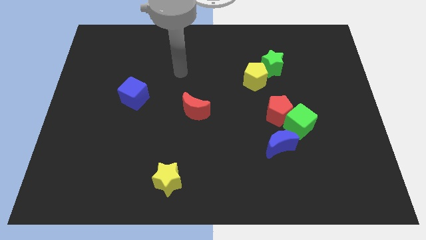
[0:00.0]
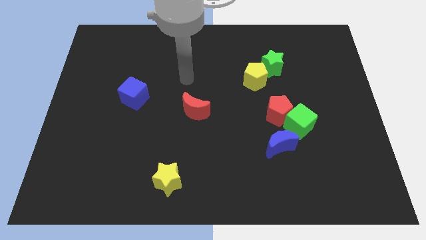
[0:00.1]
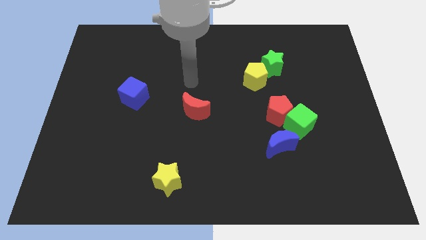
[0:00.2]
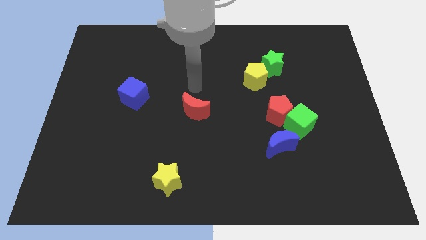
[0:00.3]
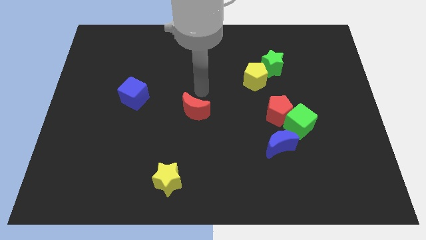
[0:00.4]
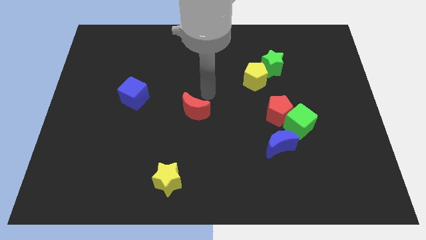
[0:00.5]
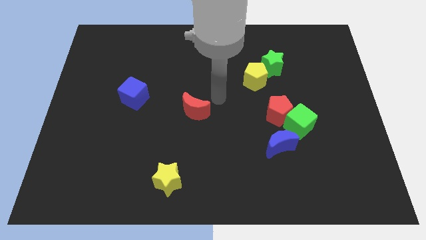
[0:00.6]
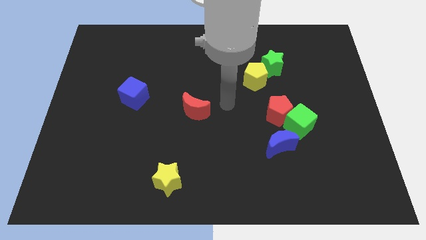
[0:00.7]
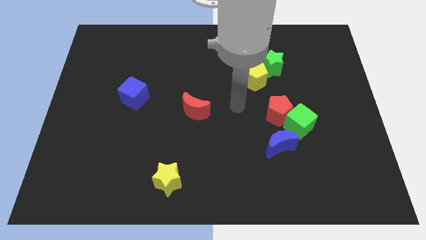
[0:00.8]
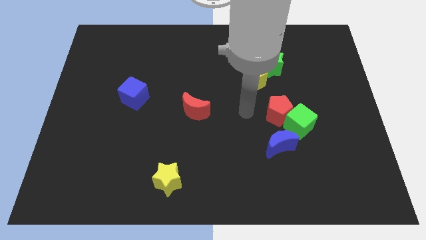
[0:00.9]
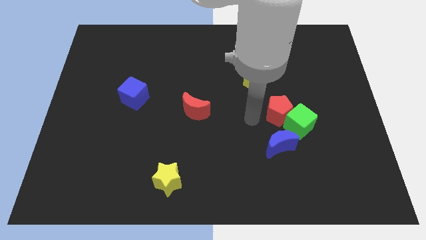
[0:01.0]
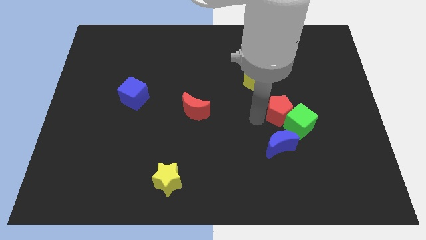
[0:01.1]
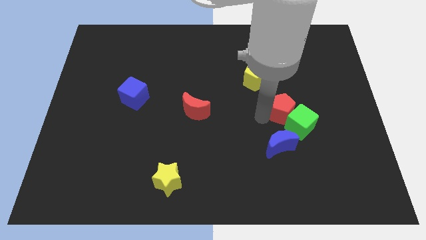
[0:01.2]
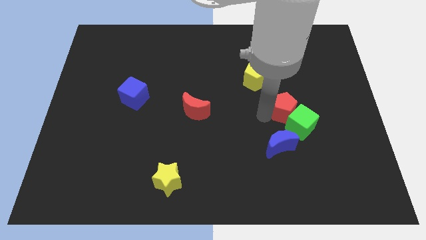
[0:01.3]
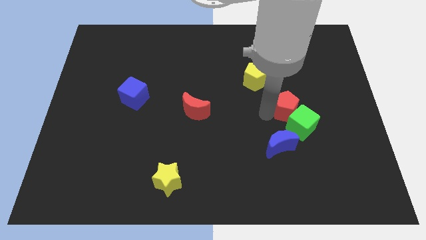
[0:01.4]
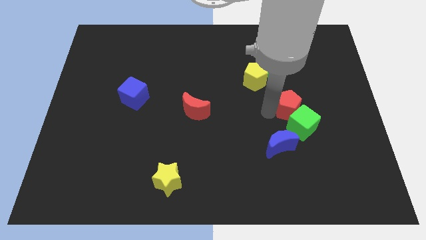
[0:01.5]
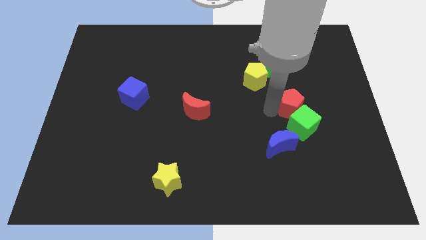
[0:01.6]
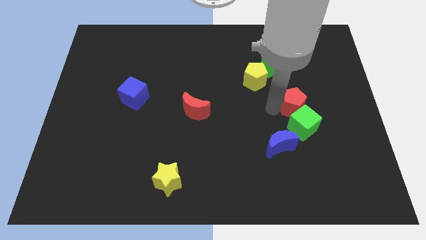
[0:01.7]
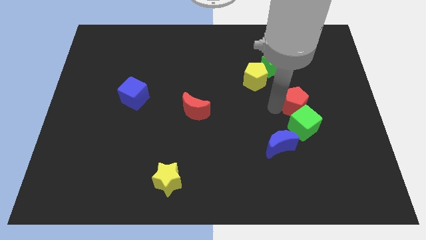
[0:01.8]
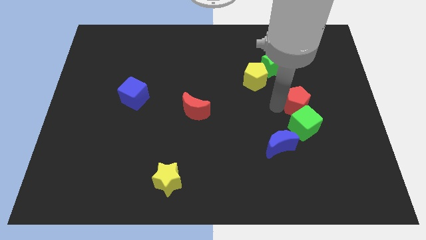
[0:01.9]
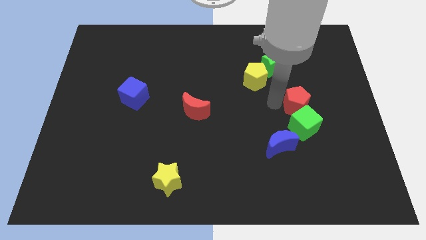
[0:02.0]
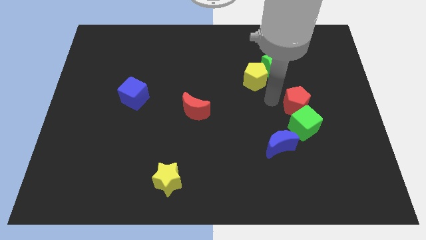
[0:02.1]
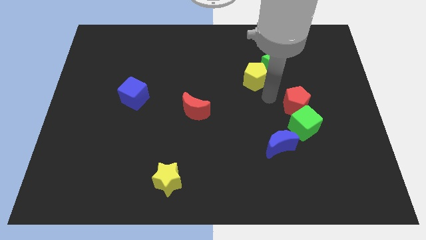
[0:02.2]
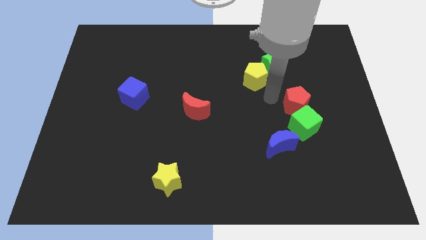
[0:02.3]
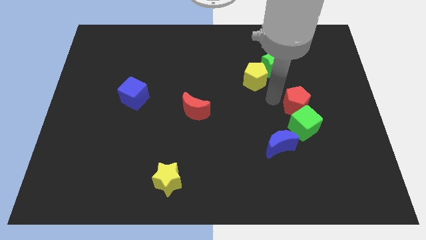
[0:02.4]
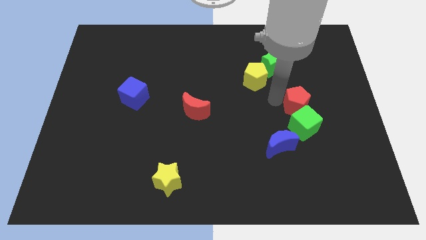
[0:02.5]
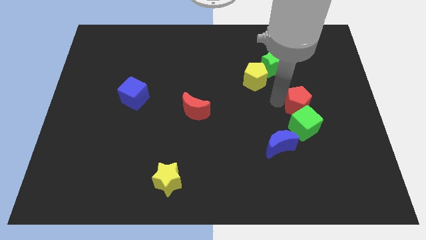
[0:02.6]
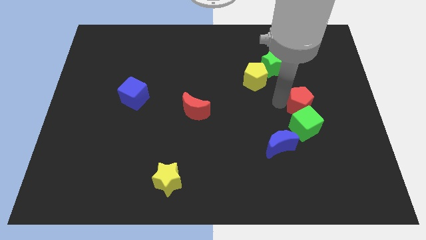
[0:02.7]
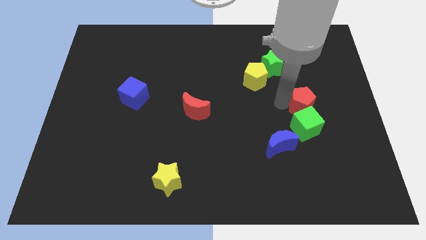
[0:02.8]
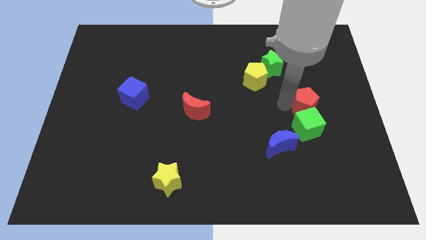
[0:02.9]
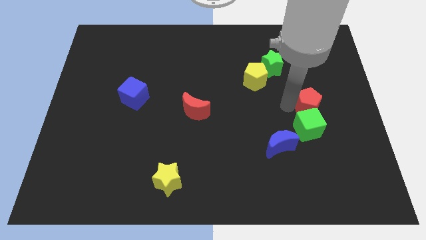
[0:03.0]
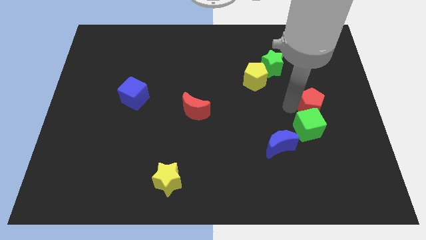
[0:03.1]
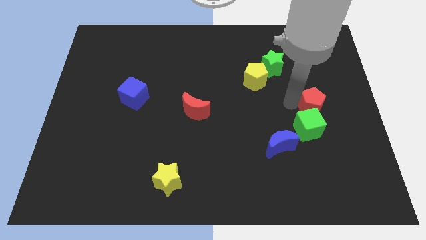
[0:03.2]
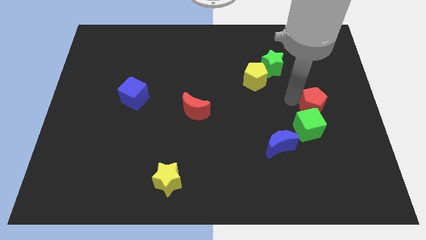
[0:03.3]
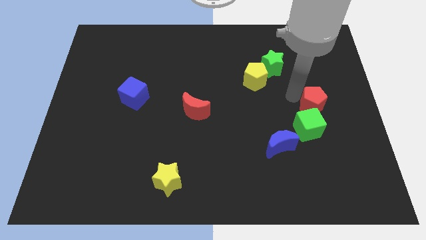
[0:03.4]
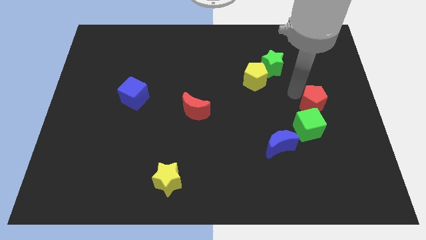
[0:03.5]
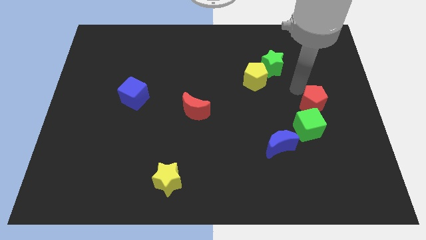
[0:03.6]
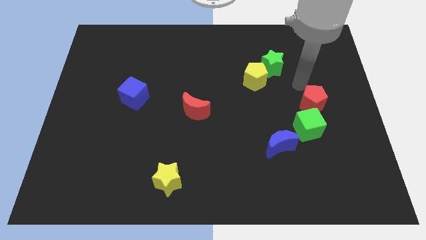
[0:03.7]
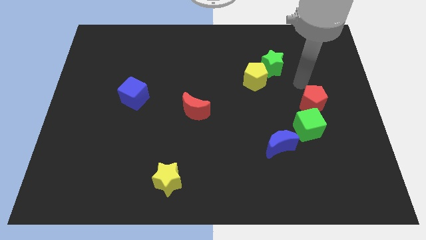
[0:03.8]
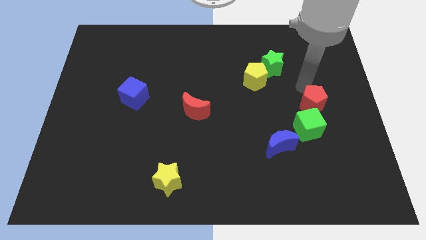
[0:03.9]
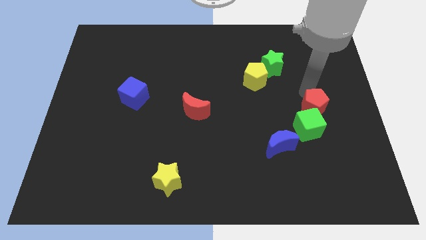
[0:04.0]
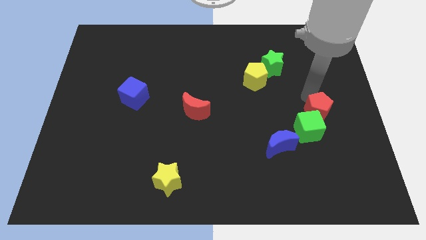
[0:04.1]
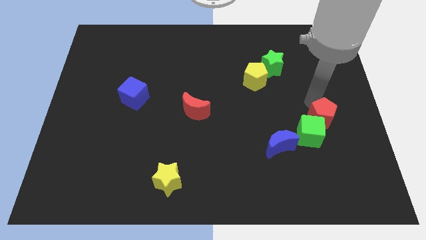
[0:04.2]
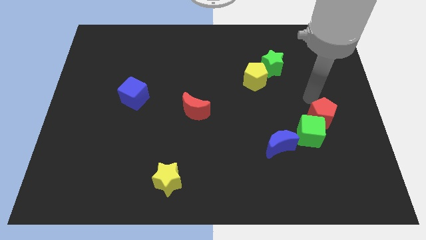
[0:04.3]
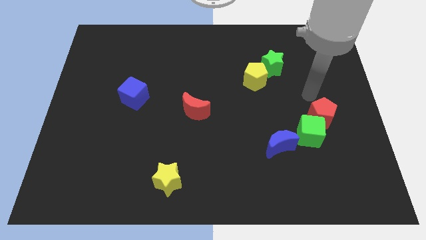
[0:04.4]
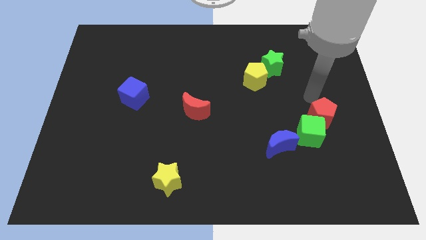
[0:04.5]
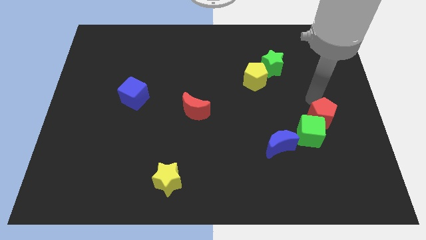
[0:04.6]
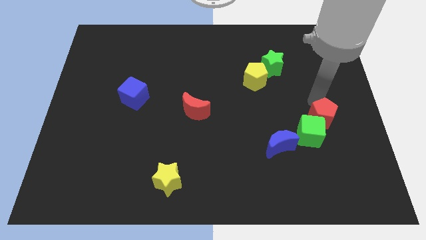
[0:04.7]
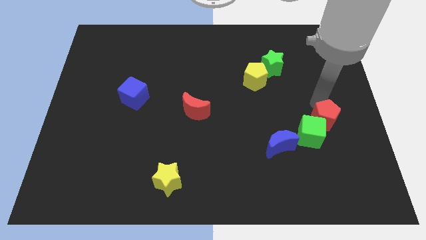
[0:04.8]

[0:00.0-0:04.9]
move the red pentagon a little bit downwards and to the right

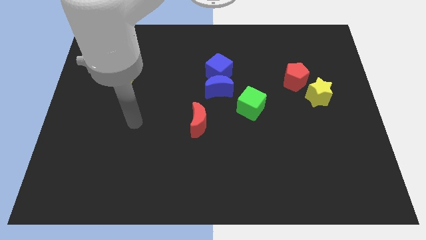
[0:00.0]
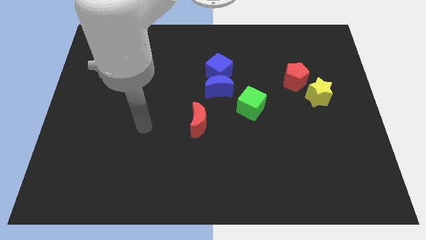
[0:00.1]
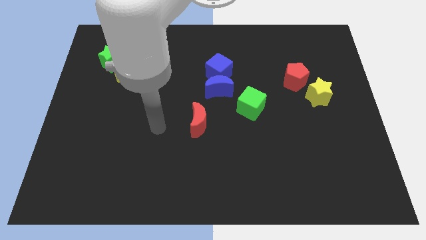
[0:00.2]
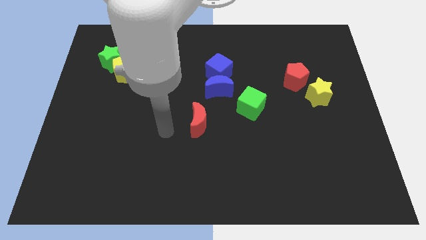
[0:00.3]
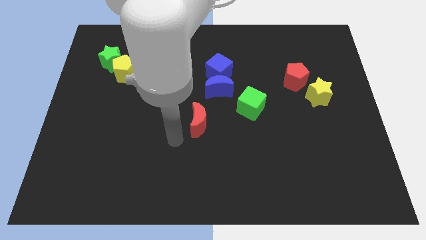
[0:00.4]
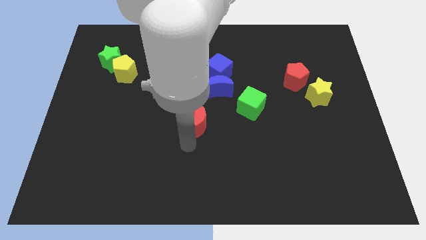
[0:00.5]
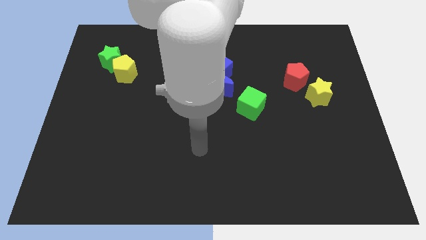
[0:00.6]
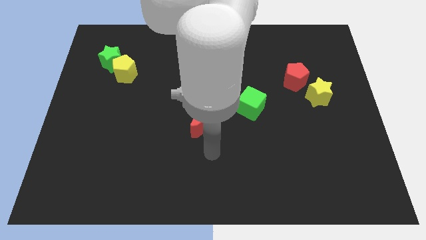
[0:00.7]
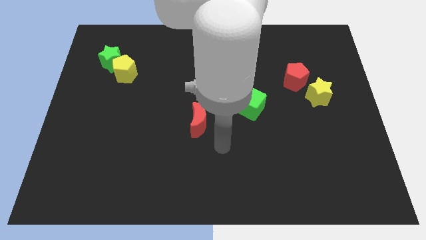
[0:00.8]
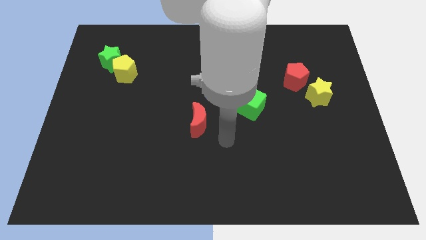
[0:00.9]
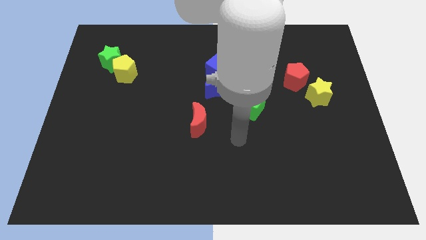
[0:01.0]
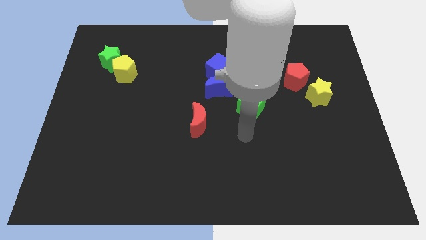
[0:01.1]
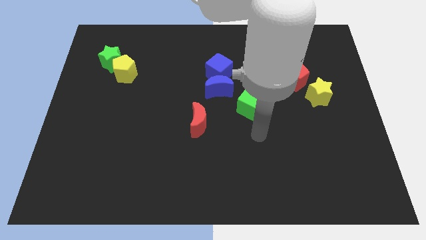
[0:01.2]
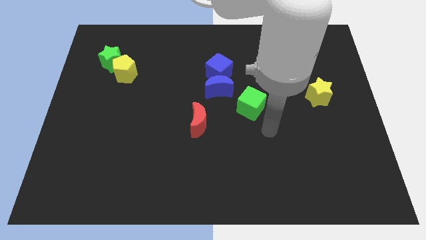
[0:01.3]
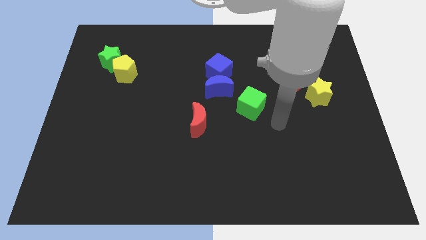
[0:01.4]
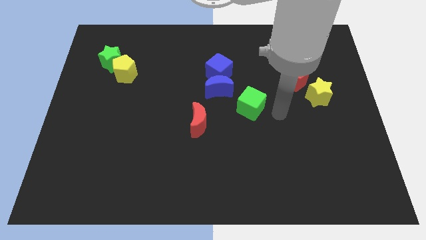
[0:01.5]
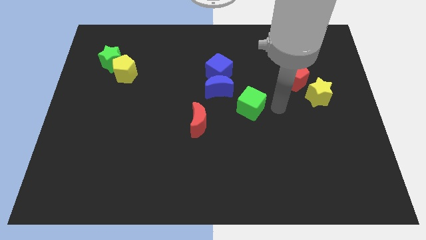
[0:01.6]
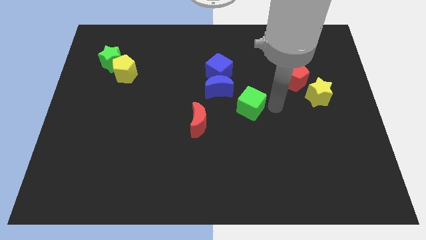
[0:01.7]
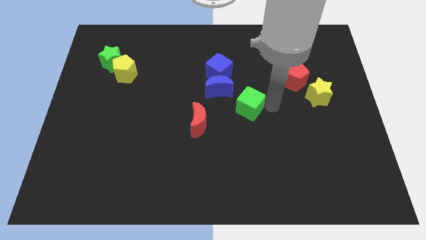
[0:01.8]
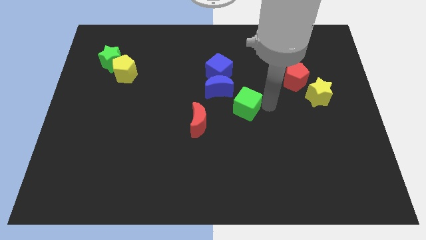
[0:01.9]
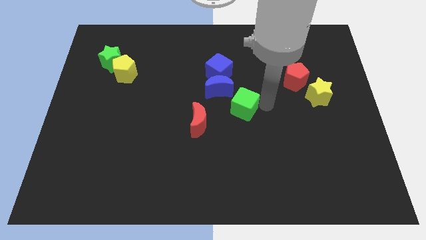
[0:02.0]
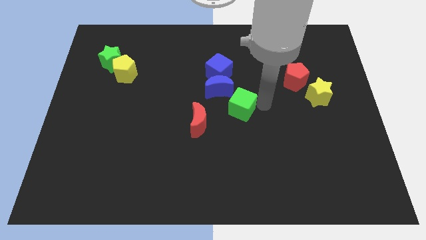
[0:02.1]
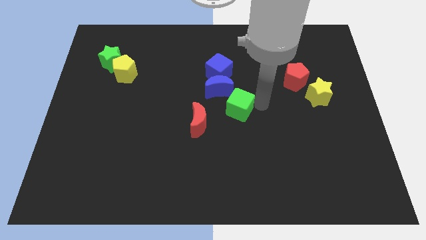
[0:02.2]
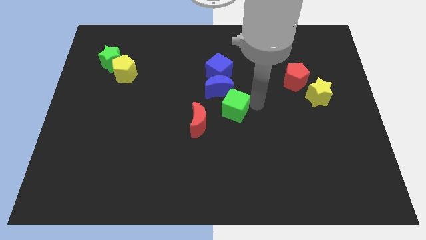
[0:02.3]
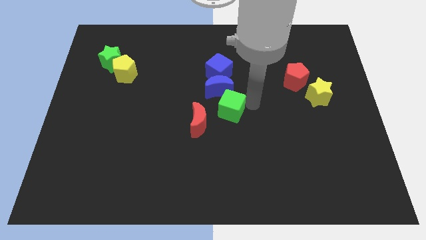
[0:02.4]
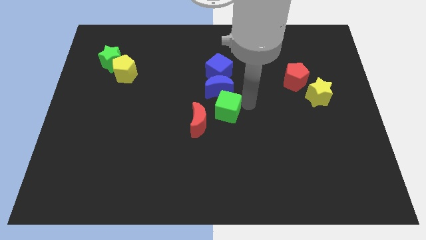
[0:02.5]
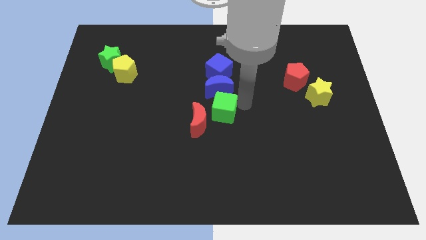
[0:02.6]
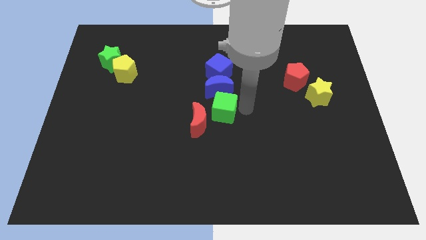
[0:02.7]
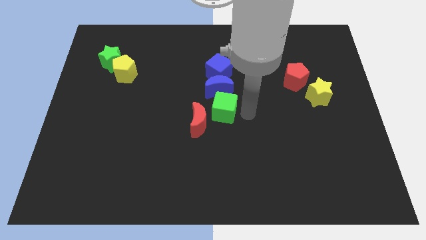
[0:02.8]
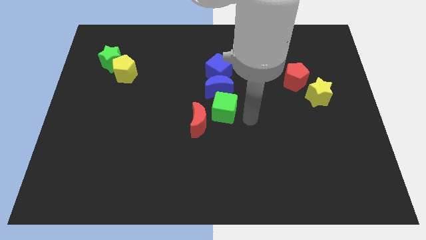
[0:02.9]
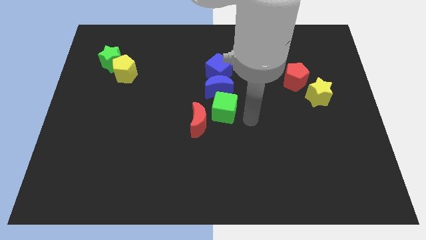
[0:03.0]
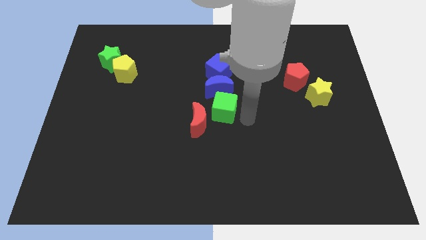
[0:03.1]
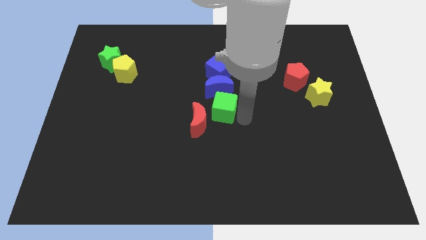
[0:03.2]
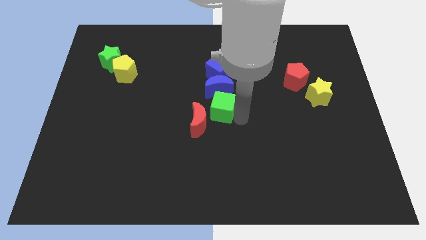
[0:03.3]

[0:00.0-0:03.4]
slightly move the green cube left
